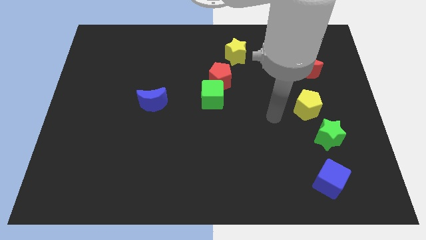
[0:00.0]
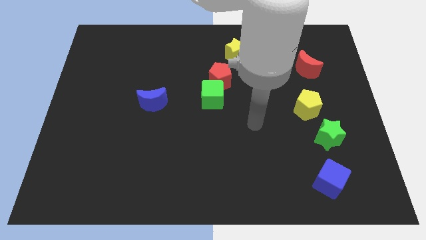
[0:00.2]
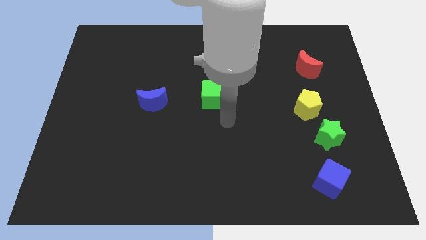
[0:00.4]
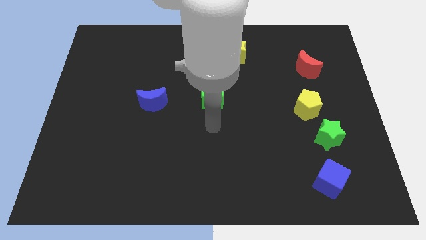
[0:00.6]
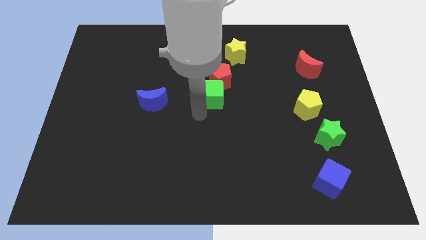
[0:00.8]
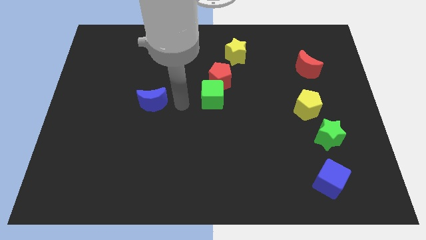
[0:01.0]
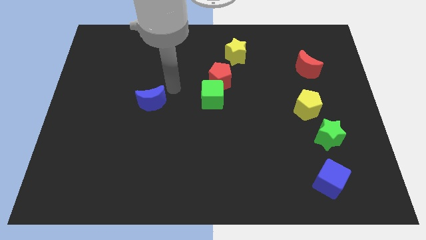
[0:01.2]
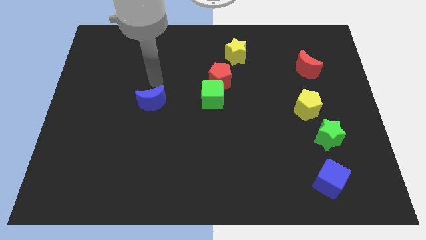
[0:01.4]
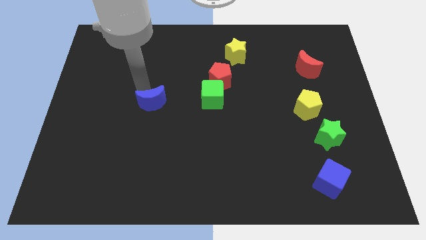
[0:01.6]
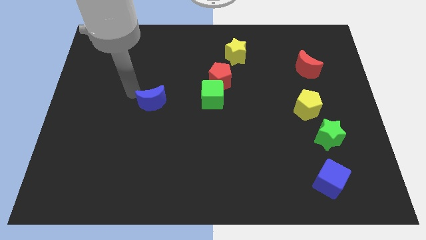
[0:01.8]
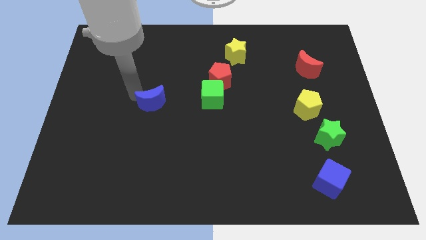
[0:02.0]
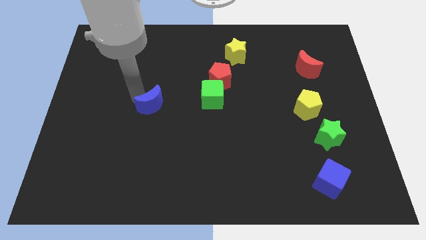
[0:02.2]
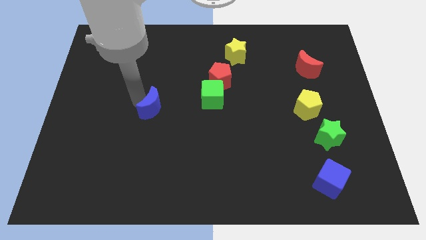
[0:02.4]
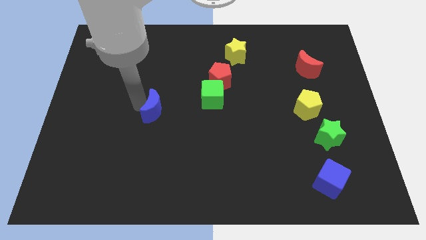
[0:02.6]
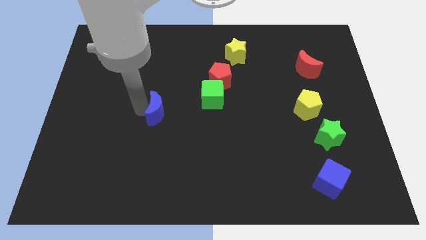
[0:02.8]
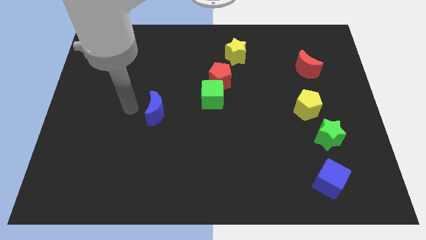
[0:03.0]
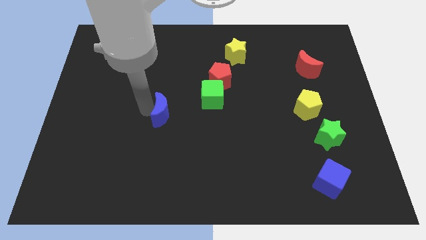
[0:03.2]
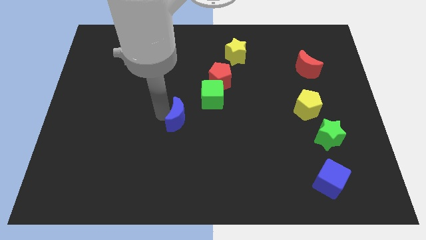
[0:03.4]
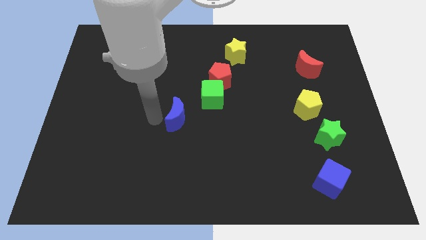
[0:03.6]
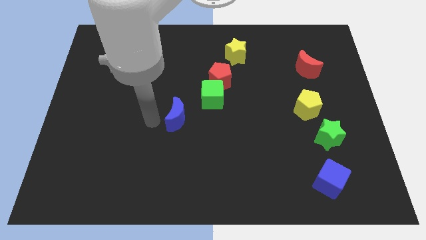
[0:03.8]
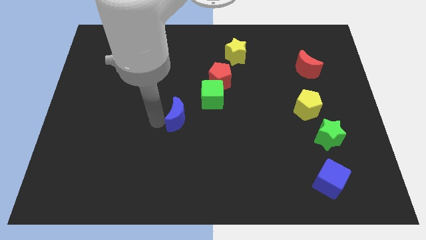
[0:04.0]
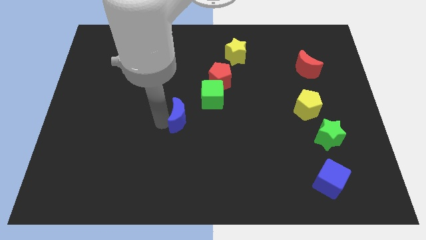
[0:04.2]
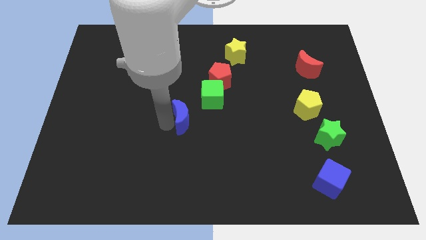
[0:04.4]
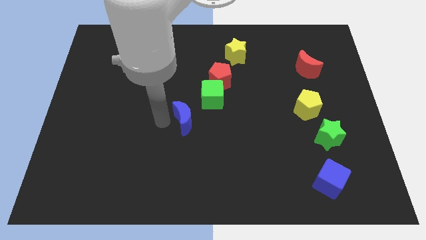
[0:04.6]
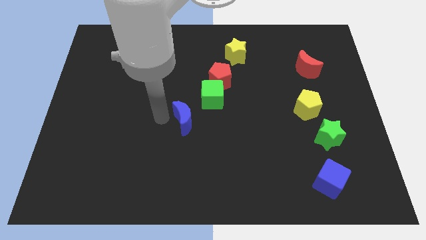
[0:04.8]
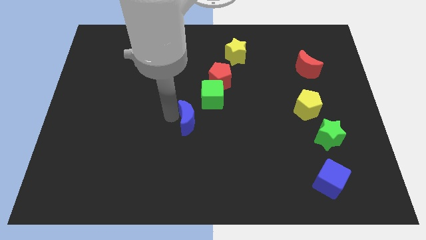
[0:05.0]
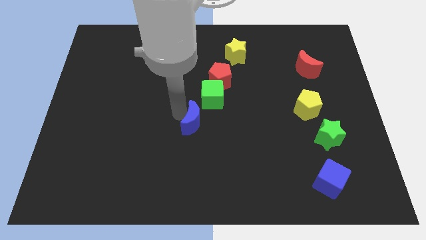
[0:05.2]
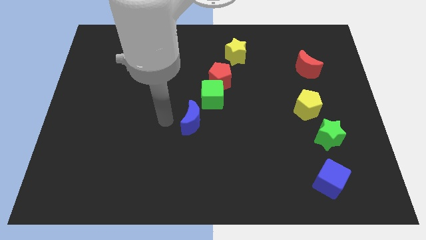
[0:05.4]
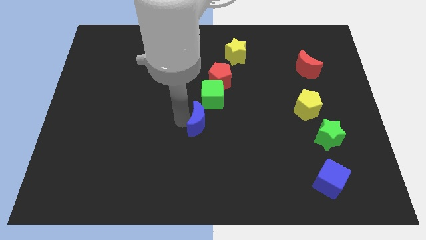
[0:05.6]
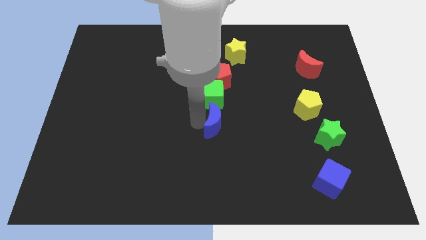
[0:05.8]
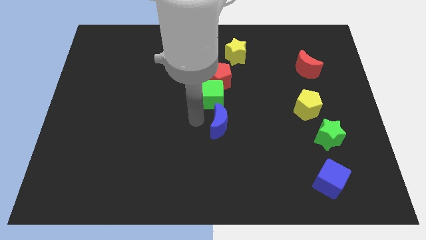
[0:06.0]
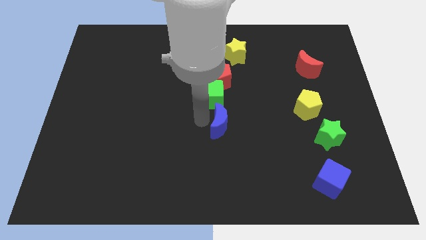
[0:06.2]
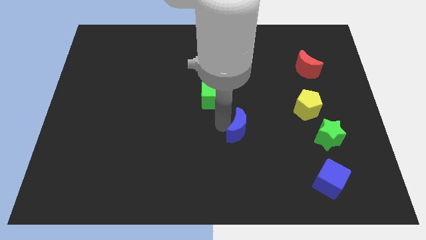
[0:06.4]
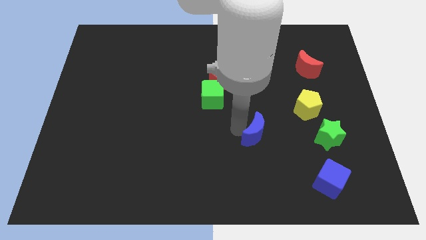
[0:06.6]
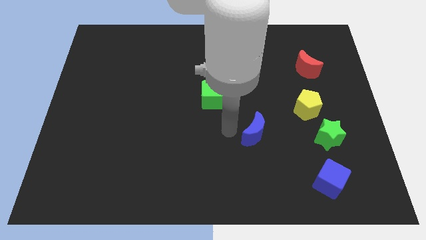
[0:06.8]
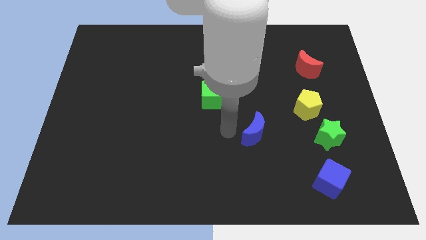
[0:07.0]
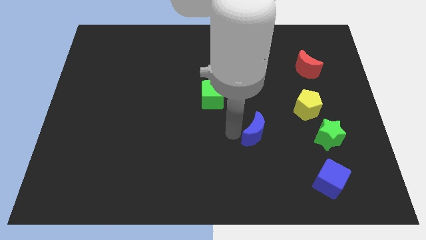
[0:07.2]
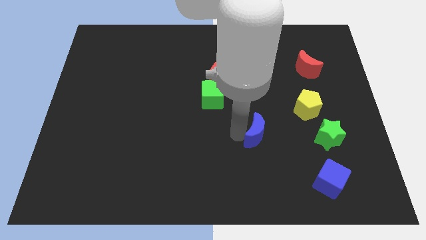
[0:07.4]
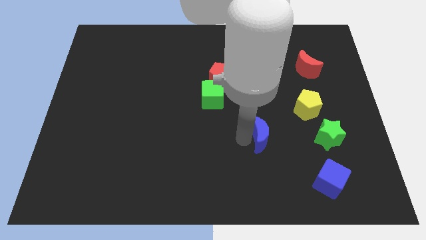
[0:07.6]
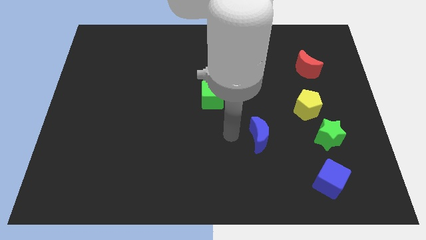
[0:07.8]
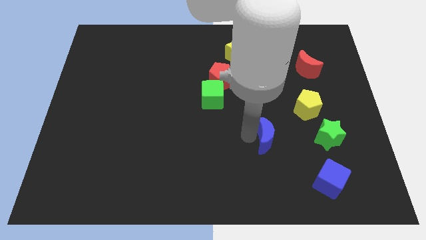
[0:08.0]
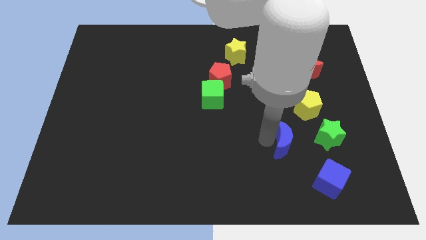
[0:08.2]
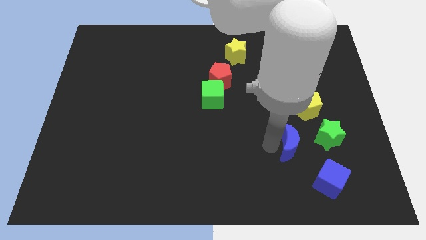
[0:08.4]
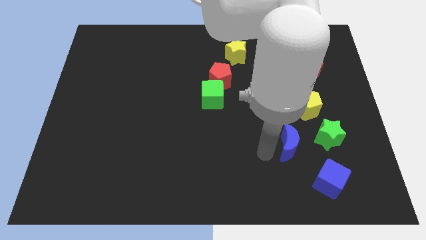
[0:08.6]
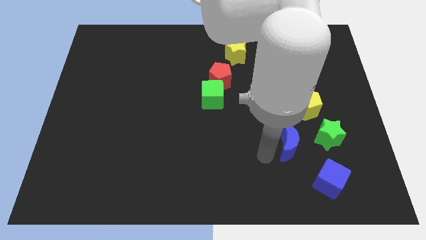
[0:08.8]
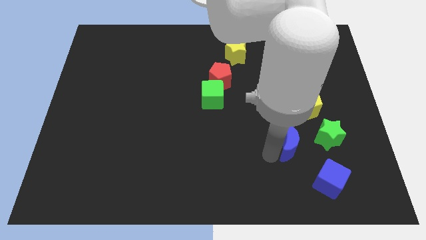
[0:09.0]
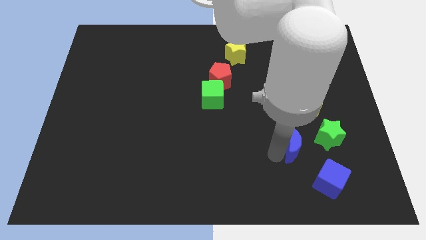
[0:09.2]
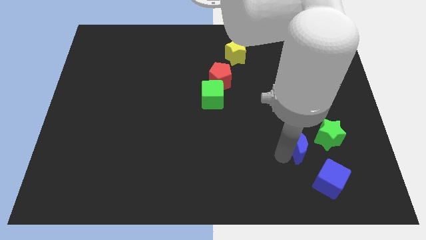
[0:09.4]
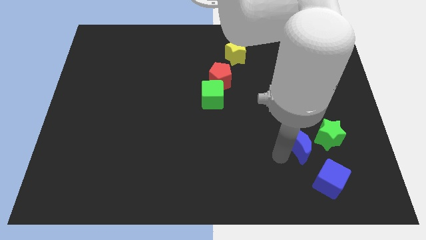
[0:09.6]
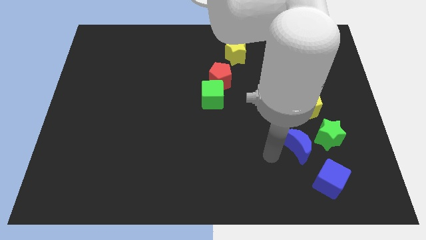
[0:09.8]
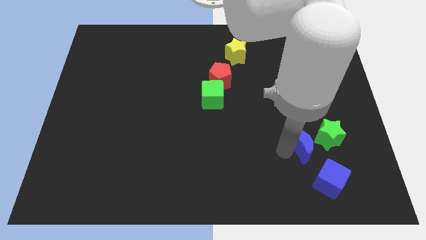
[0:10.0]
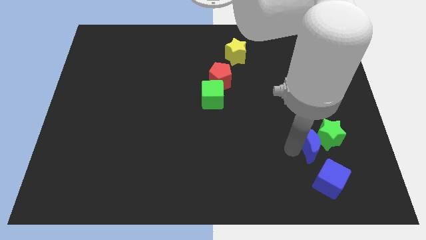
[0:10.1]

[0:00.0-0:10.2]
put the blue moon close to the green star

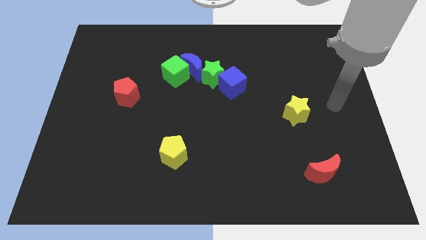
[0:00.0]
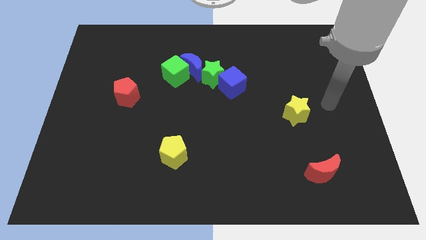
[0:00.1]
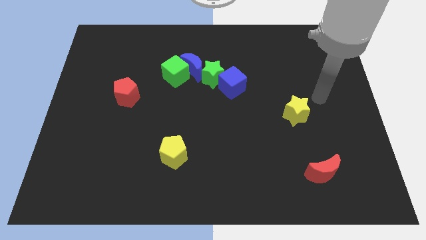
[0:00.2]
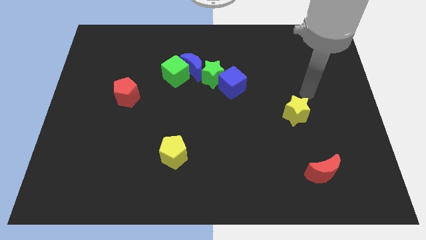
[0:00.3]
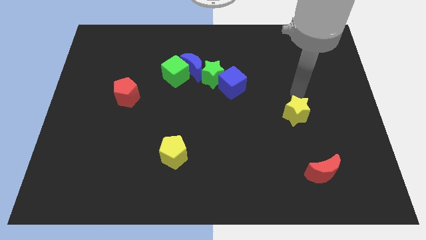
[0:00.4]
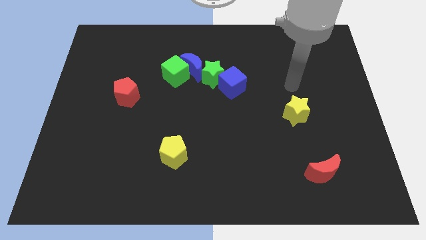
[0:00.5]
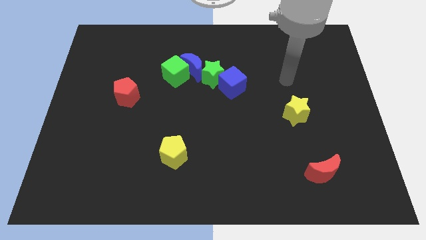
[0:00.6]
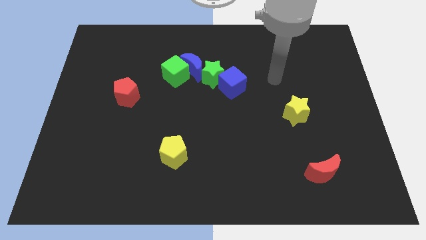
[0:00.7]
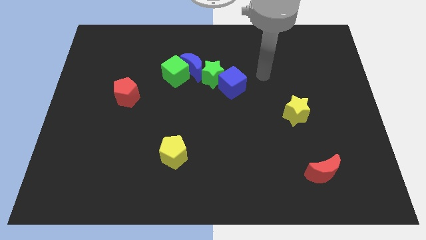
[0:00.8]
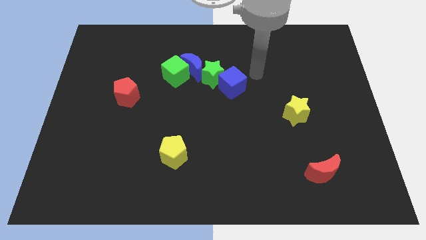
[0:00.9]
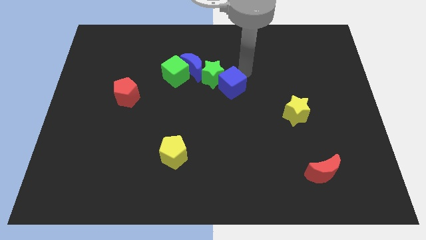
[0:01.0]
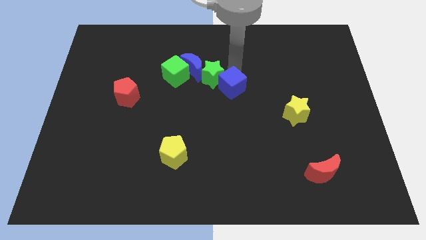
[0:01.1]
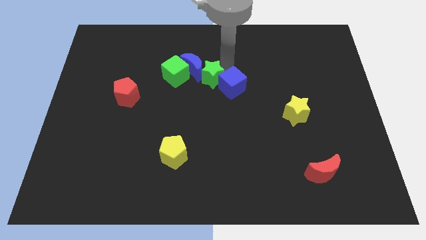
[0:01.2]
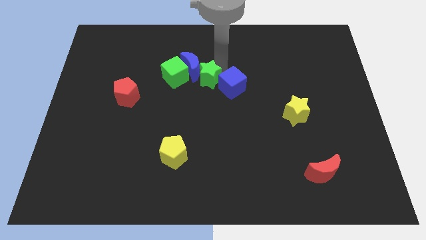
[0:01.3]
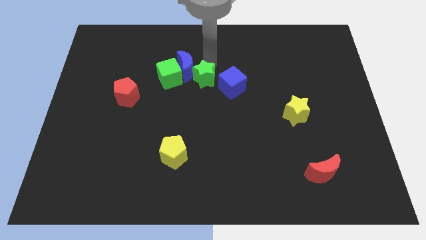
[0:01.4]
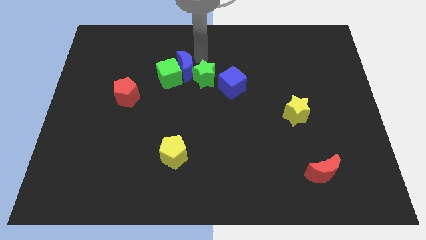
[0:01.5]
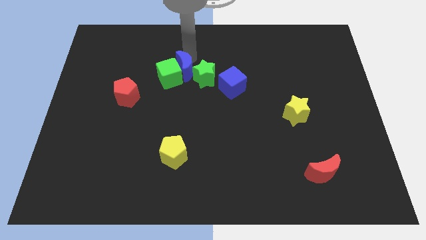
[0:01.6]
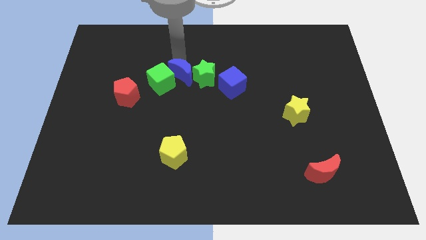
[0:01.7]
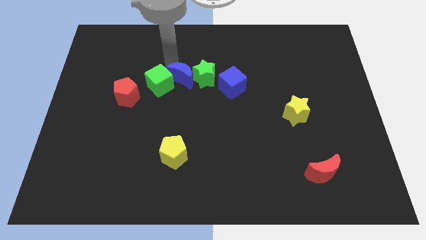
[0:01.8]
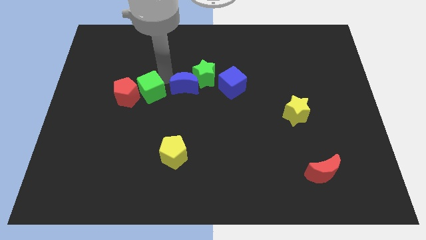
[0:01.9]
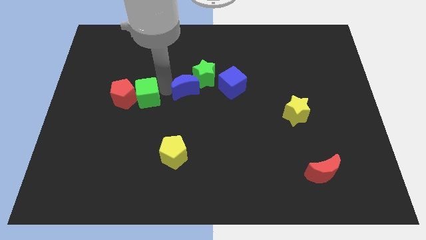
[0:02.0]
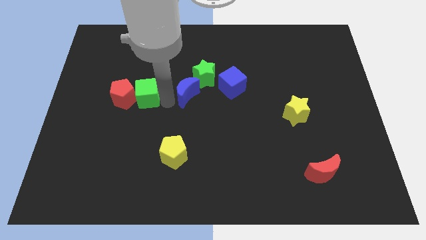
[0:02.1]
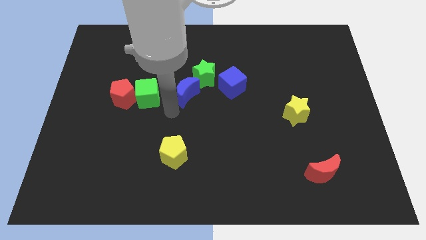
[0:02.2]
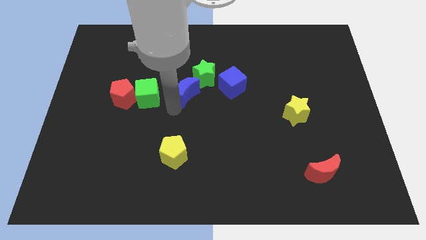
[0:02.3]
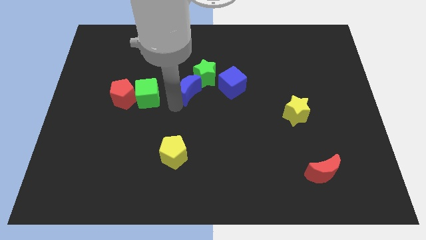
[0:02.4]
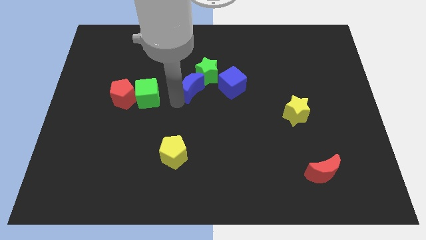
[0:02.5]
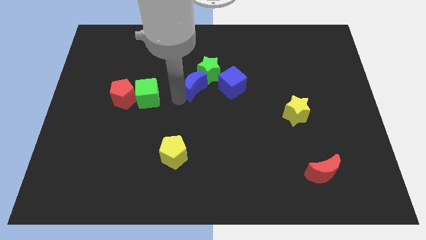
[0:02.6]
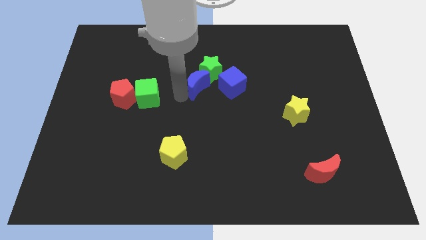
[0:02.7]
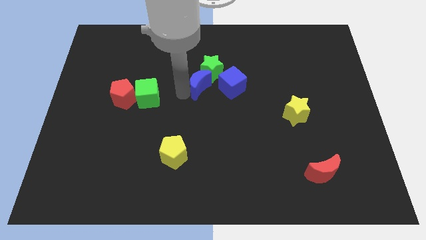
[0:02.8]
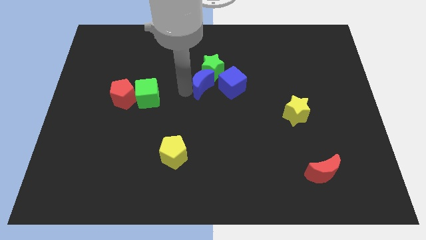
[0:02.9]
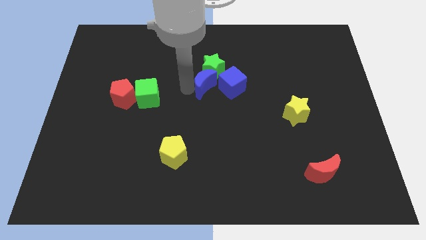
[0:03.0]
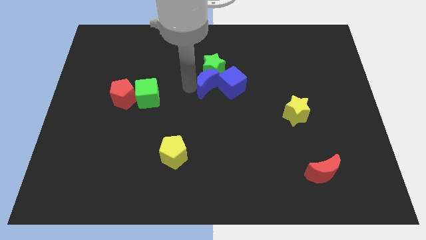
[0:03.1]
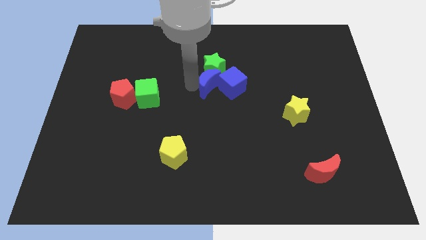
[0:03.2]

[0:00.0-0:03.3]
move the blue moon to the blue cube
